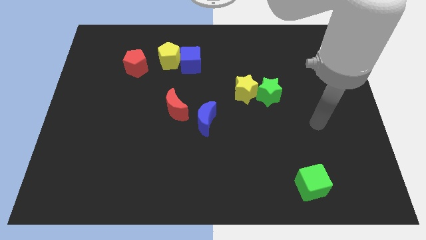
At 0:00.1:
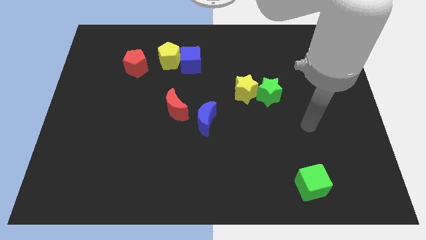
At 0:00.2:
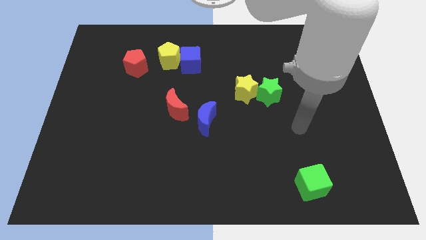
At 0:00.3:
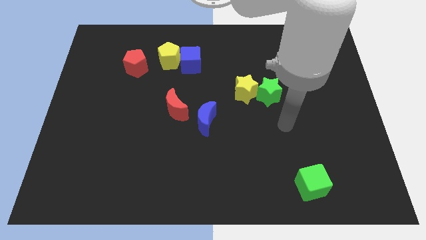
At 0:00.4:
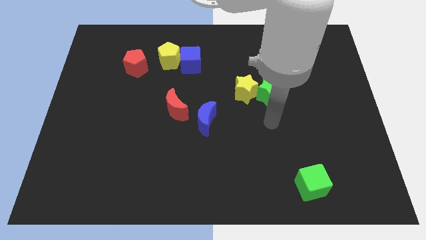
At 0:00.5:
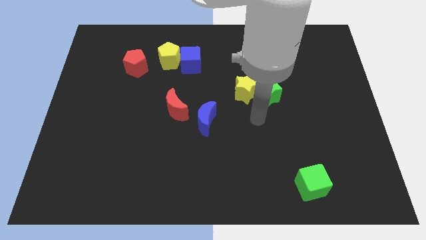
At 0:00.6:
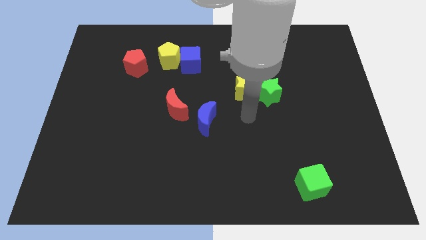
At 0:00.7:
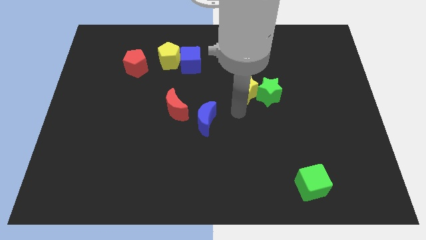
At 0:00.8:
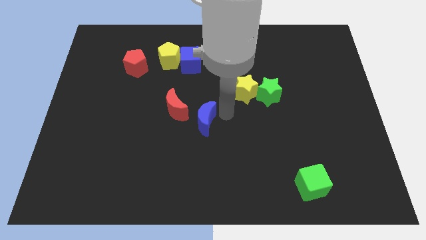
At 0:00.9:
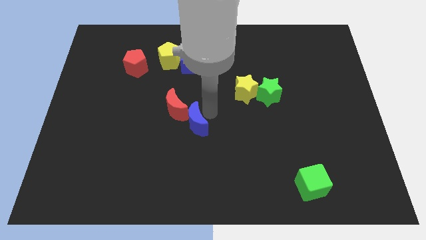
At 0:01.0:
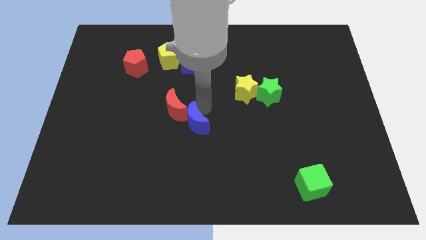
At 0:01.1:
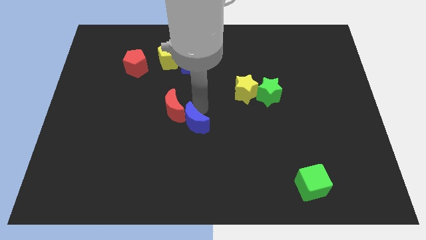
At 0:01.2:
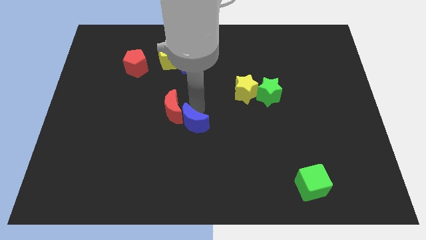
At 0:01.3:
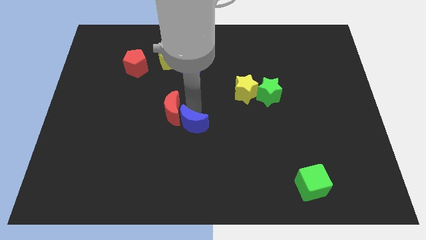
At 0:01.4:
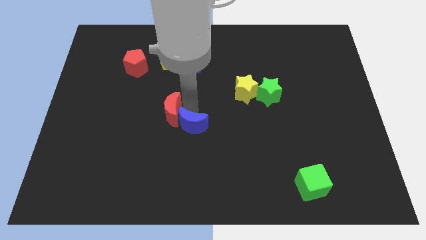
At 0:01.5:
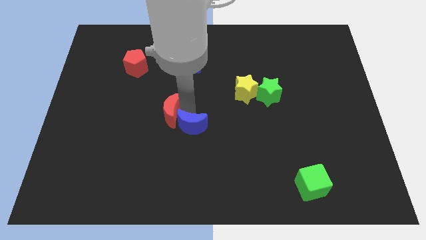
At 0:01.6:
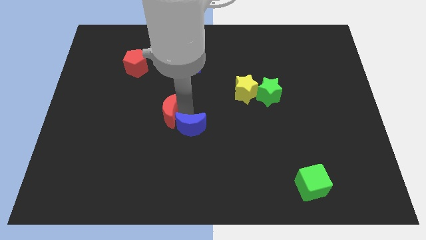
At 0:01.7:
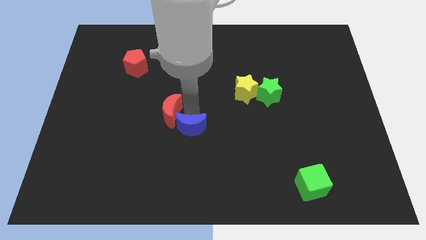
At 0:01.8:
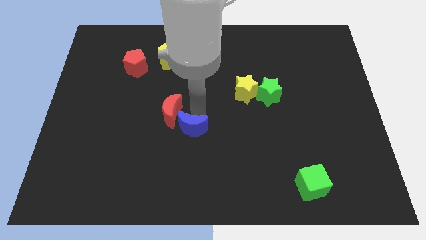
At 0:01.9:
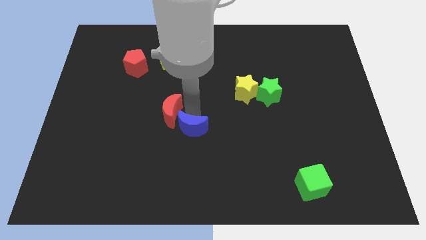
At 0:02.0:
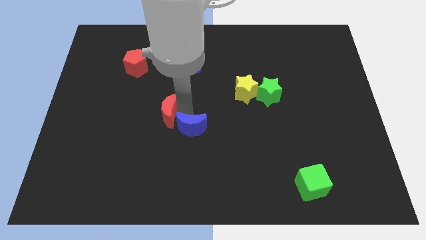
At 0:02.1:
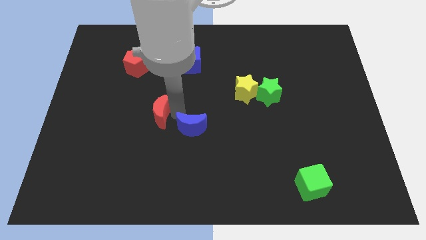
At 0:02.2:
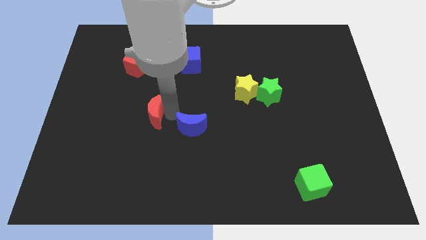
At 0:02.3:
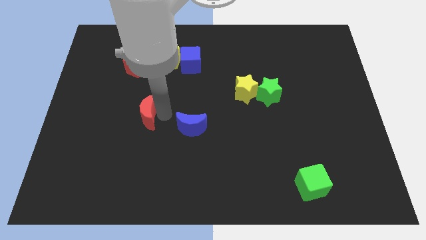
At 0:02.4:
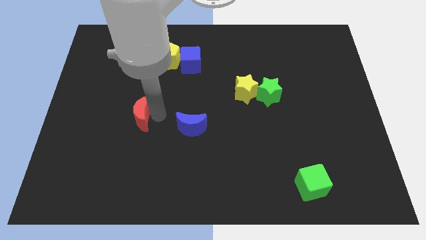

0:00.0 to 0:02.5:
slightly push the red moon left

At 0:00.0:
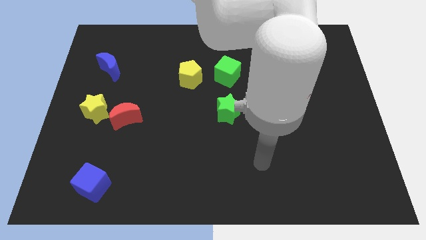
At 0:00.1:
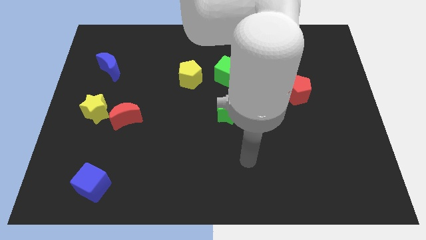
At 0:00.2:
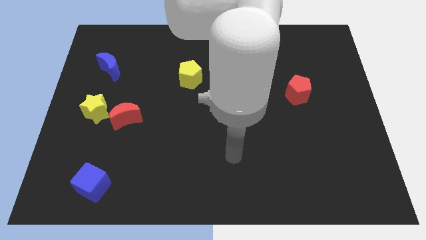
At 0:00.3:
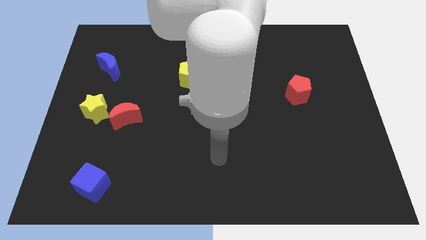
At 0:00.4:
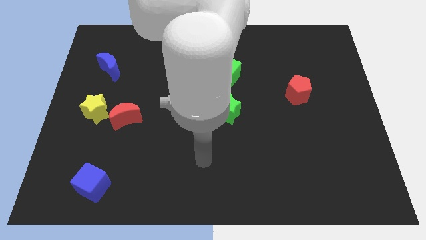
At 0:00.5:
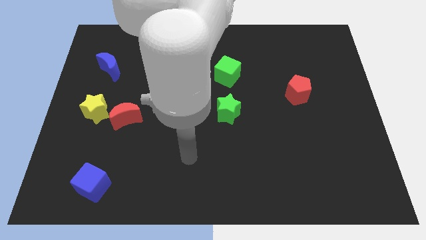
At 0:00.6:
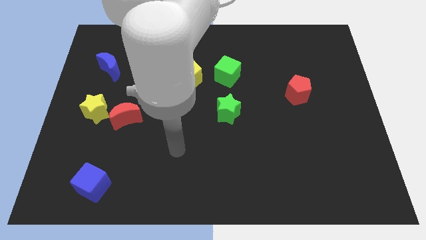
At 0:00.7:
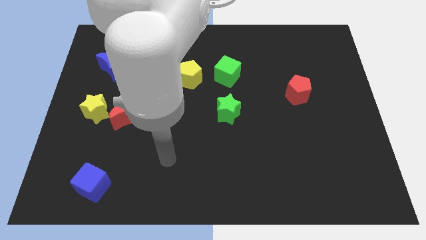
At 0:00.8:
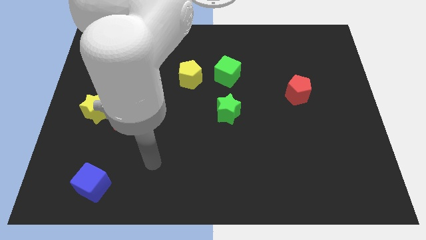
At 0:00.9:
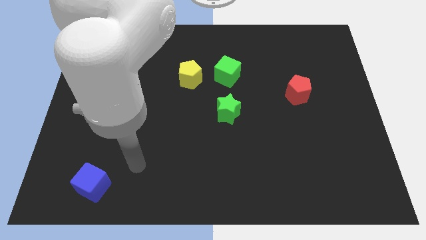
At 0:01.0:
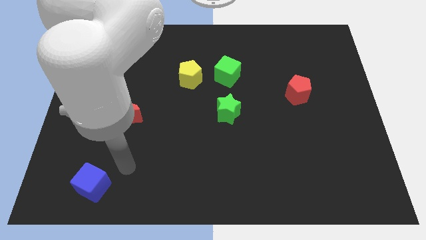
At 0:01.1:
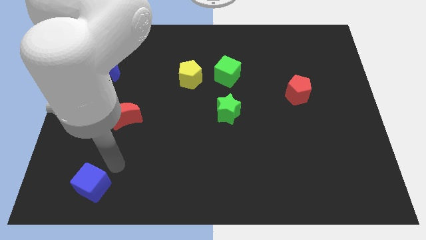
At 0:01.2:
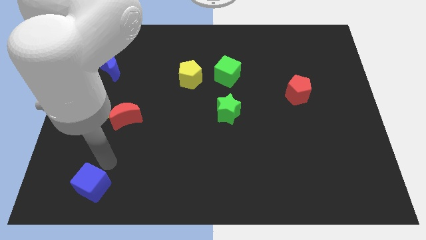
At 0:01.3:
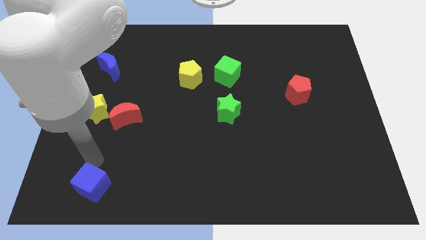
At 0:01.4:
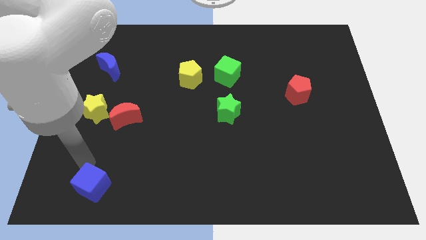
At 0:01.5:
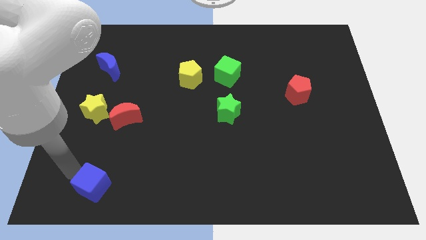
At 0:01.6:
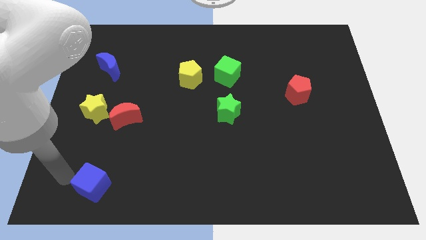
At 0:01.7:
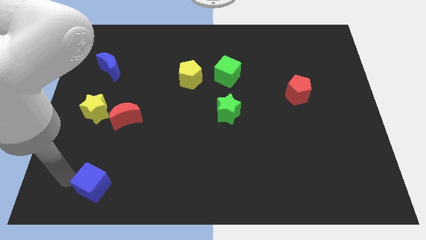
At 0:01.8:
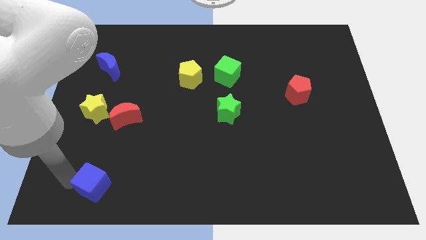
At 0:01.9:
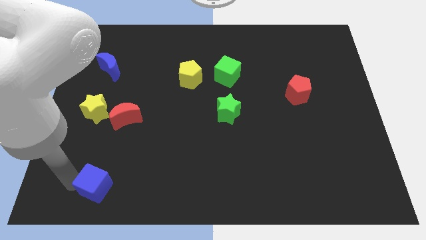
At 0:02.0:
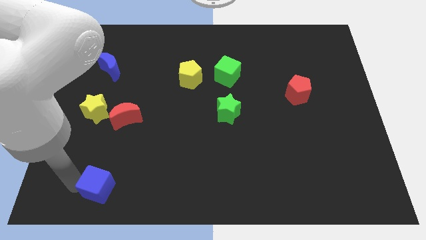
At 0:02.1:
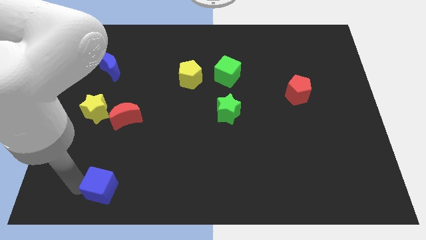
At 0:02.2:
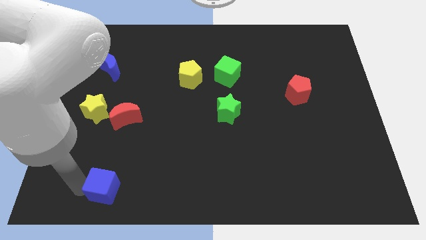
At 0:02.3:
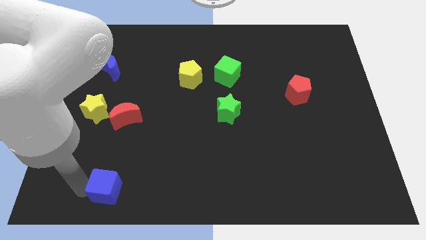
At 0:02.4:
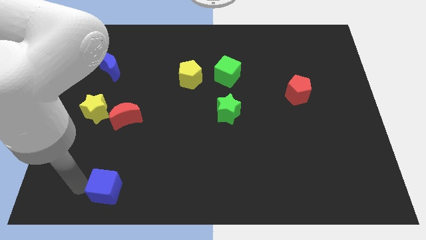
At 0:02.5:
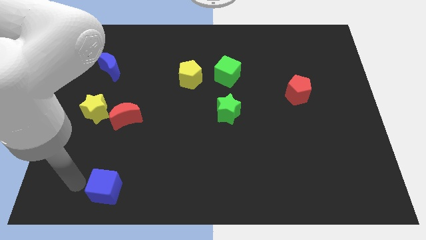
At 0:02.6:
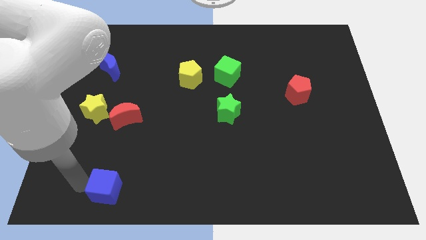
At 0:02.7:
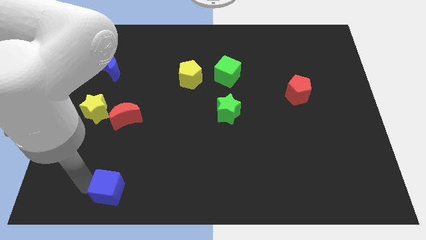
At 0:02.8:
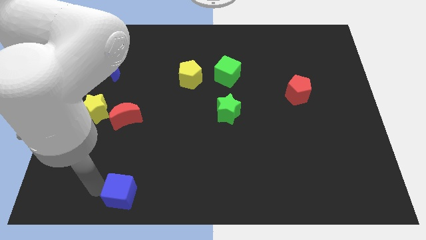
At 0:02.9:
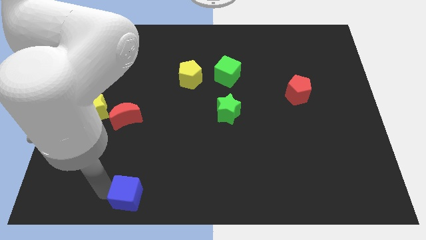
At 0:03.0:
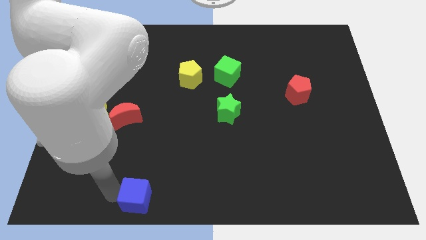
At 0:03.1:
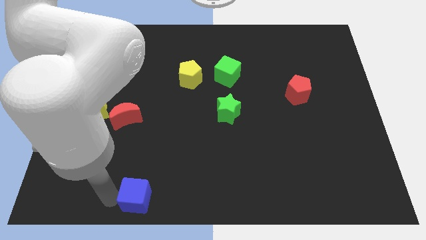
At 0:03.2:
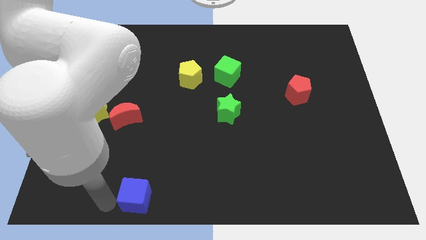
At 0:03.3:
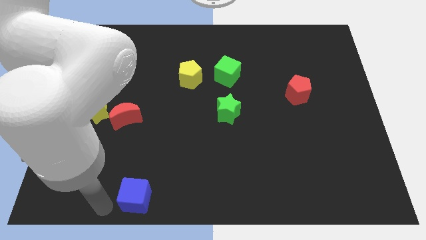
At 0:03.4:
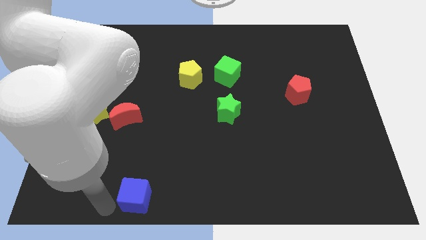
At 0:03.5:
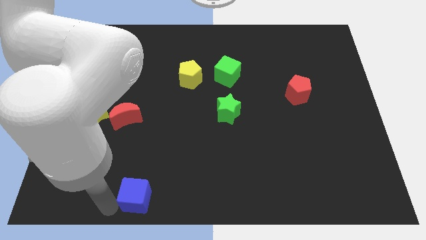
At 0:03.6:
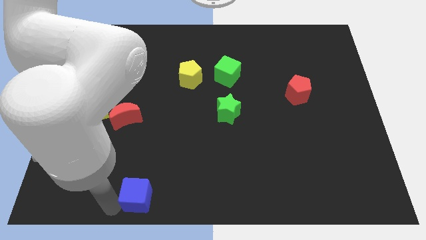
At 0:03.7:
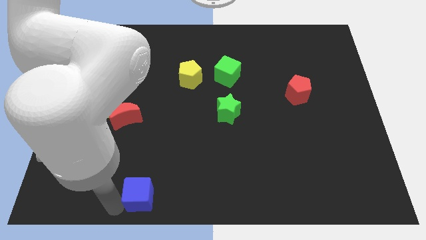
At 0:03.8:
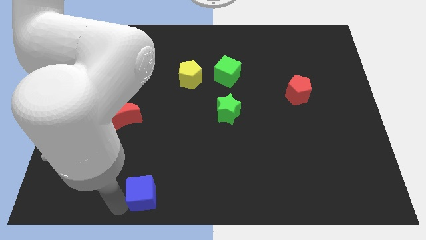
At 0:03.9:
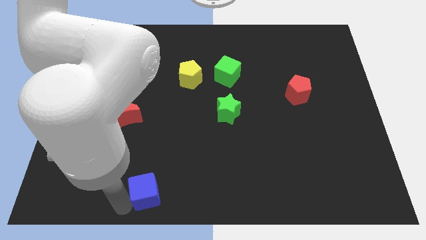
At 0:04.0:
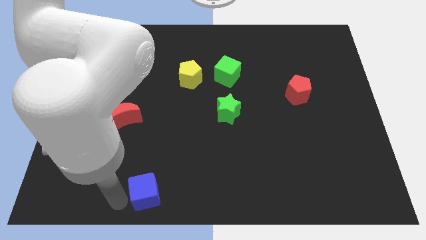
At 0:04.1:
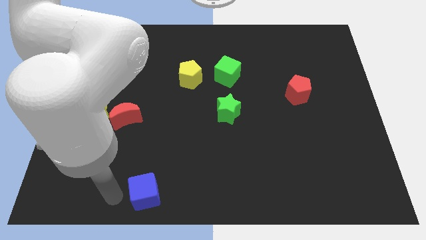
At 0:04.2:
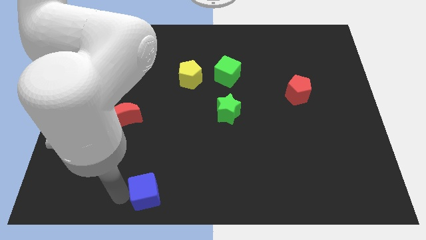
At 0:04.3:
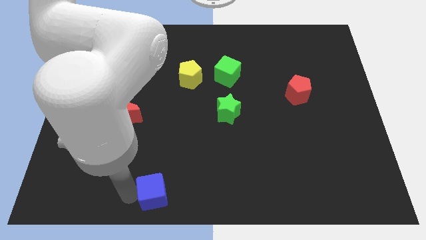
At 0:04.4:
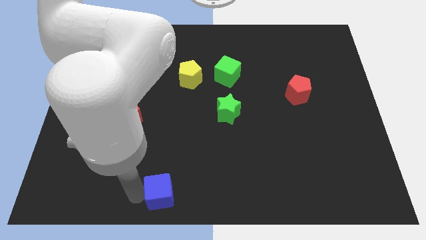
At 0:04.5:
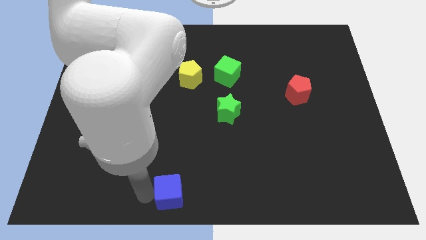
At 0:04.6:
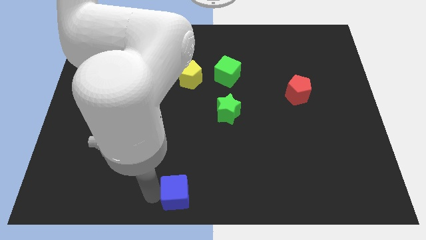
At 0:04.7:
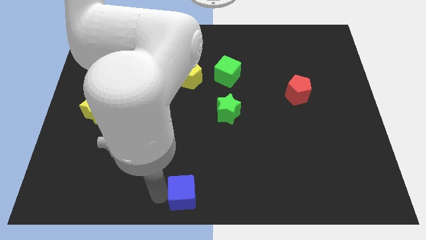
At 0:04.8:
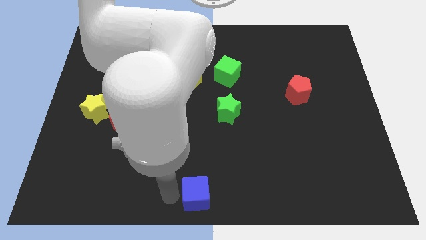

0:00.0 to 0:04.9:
push the blue cube right

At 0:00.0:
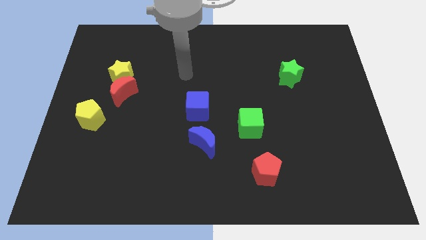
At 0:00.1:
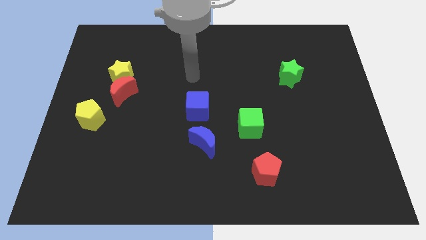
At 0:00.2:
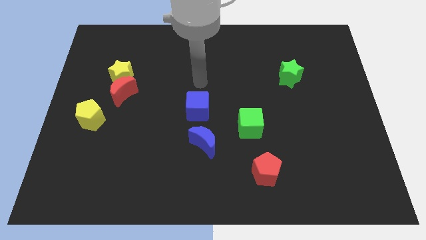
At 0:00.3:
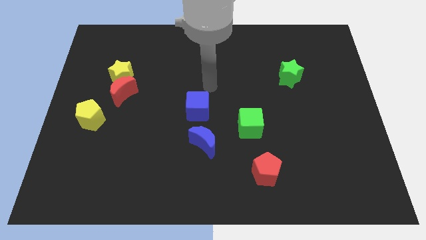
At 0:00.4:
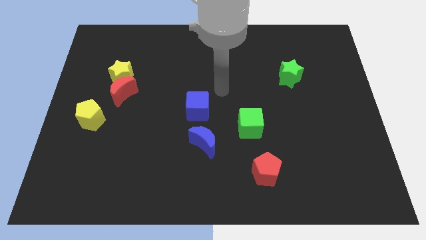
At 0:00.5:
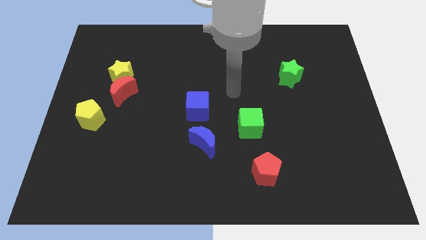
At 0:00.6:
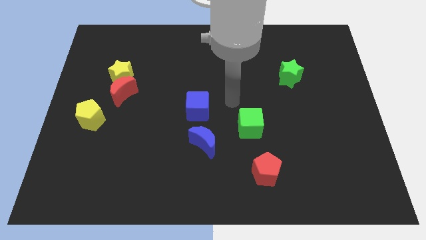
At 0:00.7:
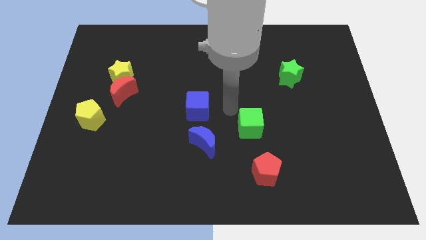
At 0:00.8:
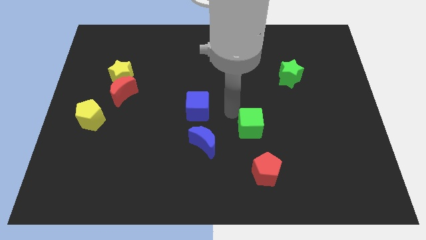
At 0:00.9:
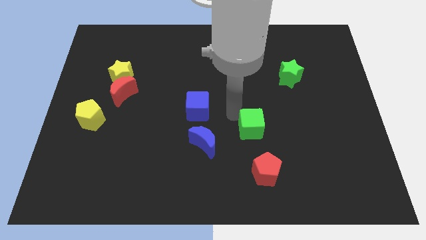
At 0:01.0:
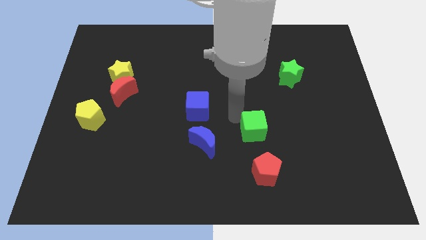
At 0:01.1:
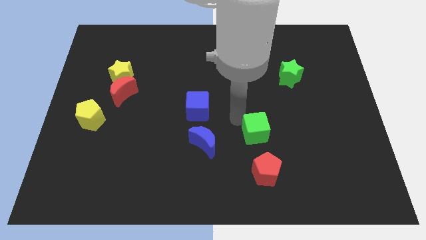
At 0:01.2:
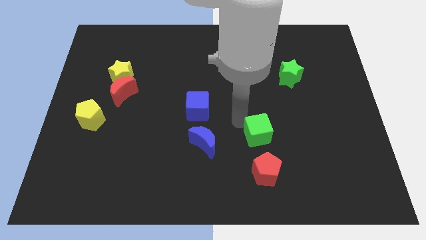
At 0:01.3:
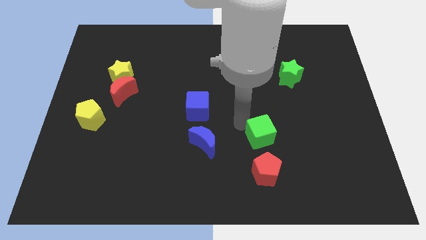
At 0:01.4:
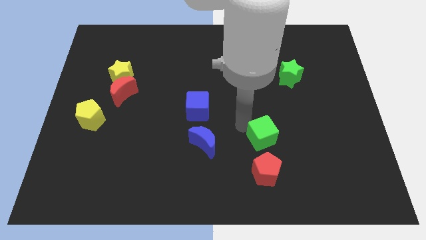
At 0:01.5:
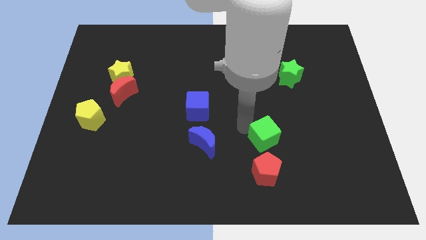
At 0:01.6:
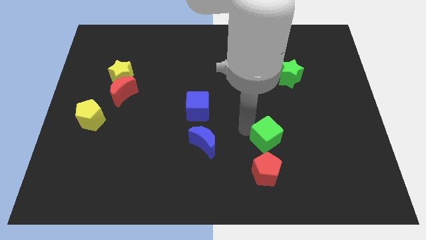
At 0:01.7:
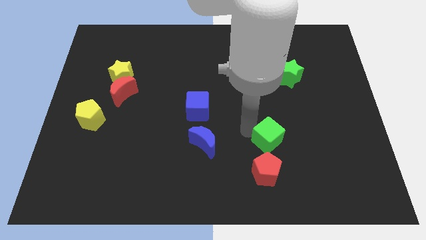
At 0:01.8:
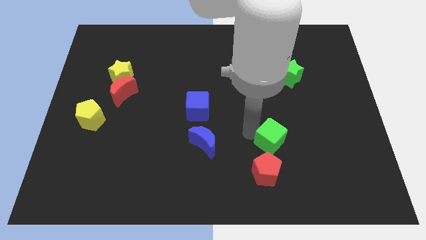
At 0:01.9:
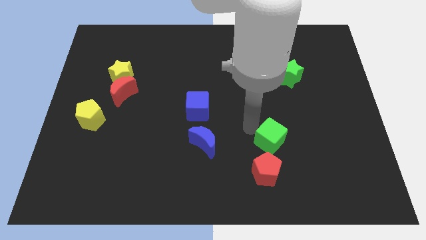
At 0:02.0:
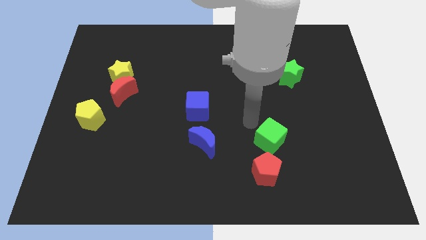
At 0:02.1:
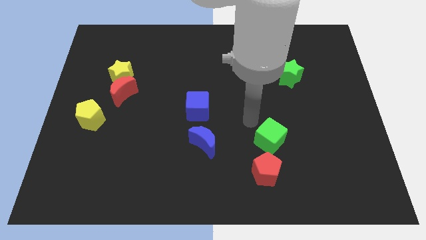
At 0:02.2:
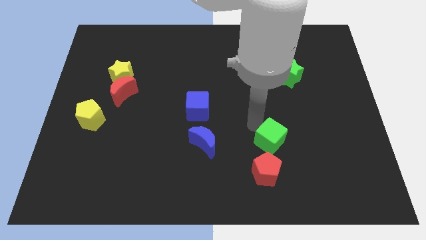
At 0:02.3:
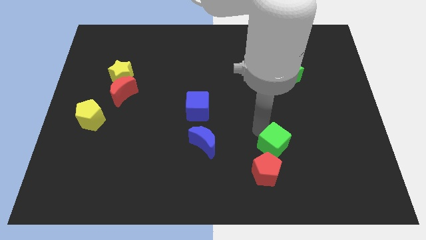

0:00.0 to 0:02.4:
slightly push the green cube down and then to the right
